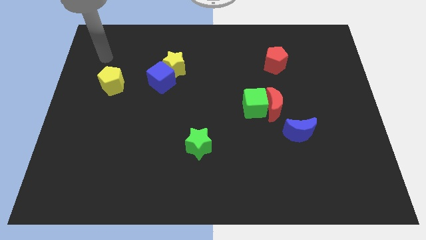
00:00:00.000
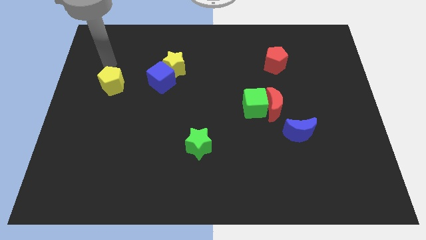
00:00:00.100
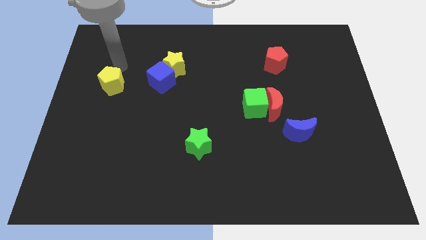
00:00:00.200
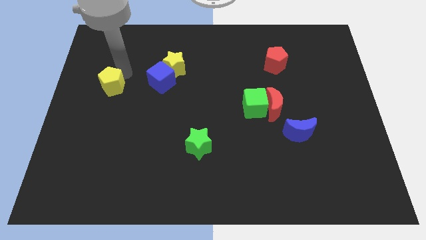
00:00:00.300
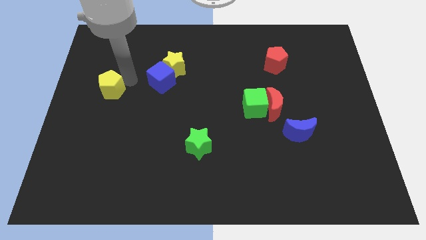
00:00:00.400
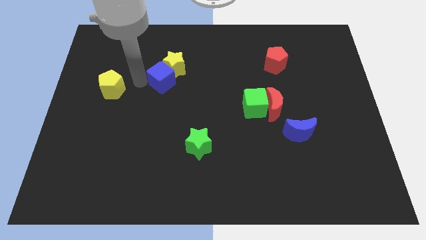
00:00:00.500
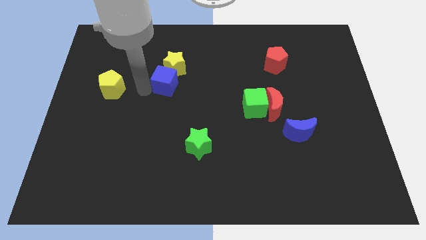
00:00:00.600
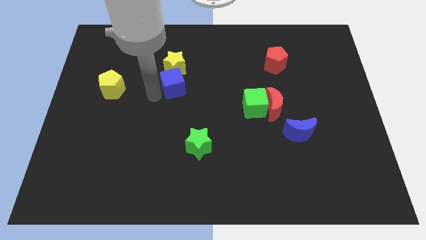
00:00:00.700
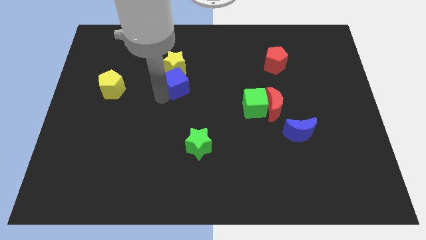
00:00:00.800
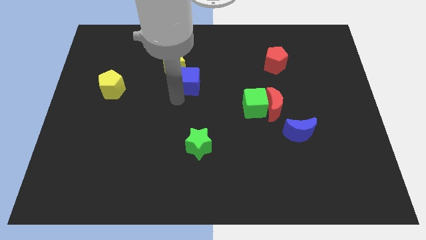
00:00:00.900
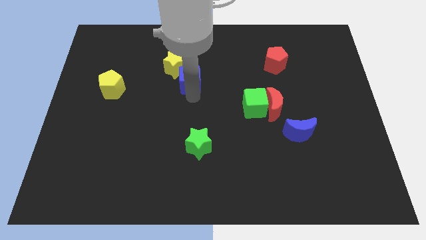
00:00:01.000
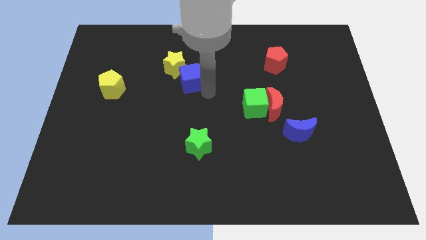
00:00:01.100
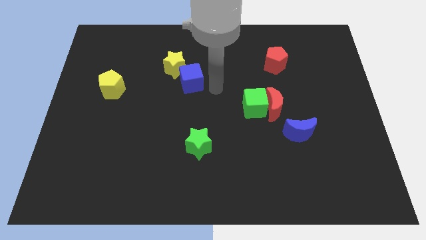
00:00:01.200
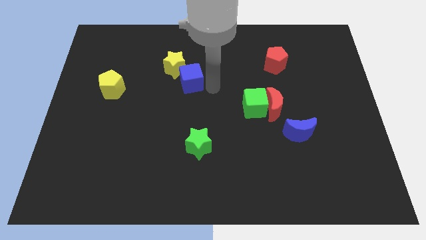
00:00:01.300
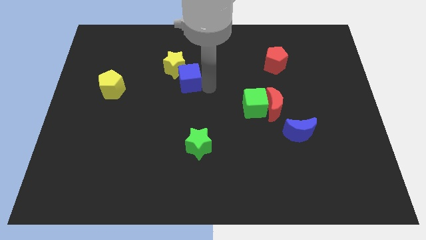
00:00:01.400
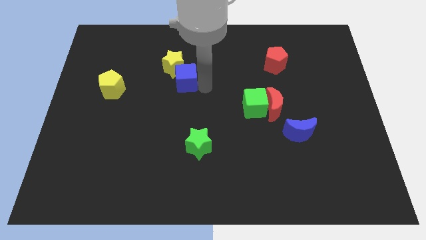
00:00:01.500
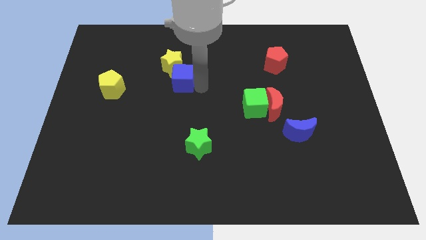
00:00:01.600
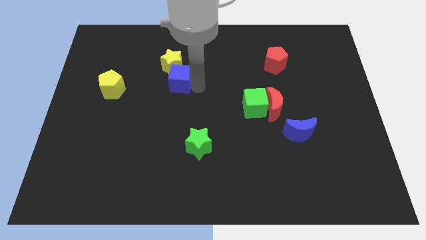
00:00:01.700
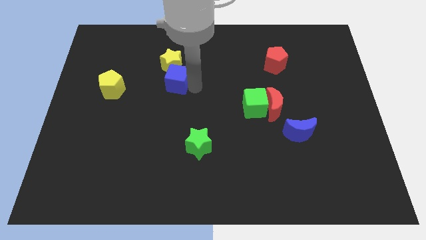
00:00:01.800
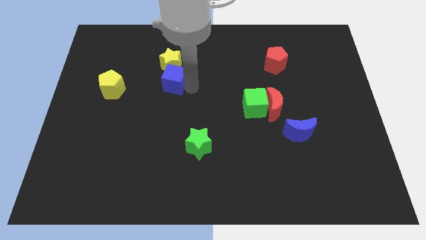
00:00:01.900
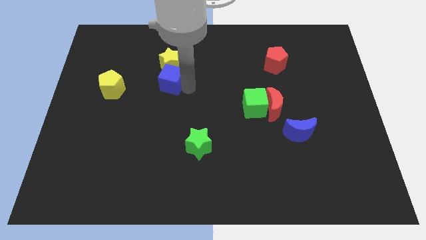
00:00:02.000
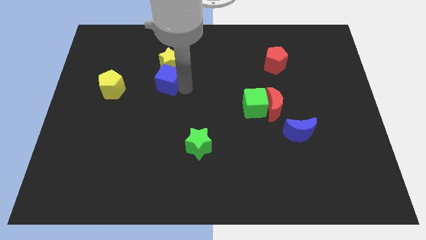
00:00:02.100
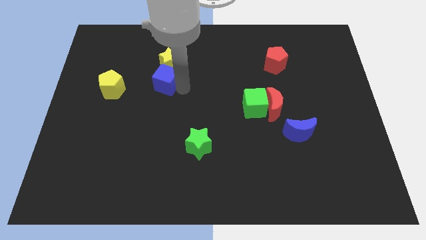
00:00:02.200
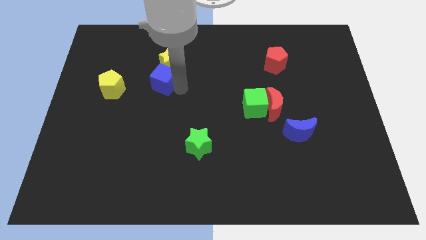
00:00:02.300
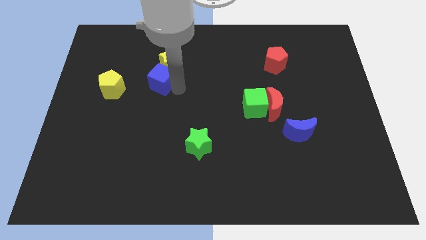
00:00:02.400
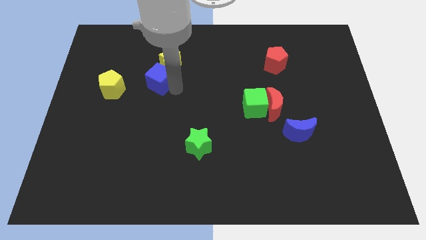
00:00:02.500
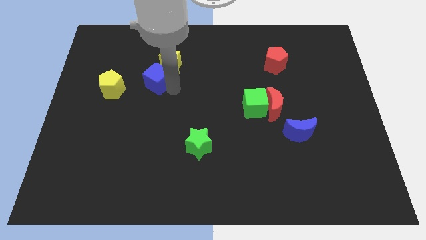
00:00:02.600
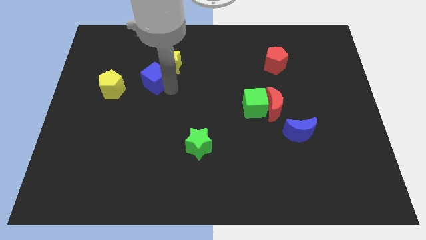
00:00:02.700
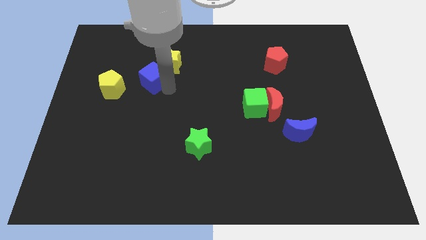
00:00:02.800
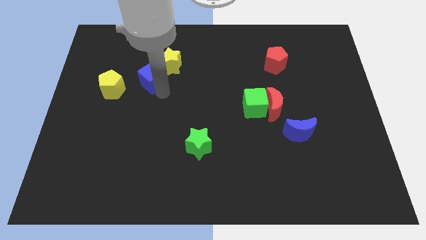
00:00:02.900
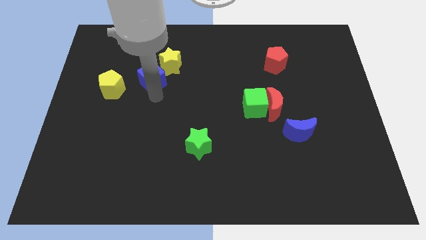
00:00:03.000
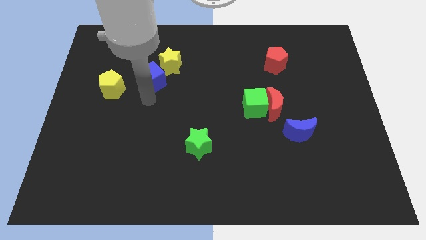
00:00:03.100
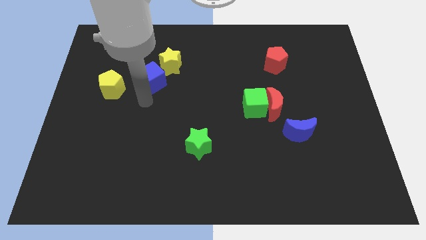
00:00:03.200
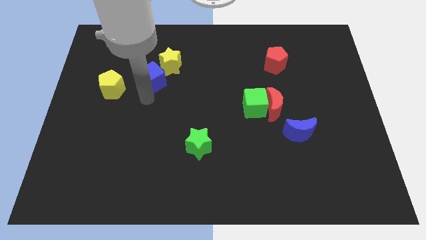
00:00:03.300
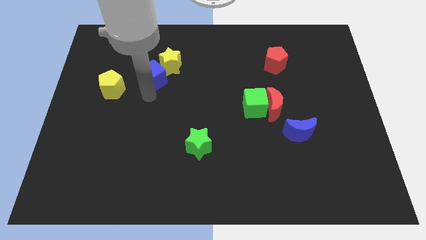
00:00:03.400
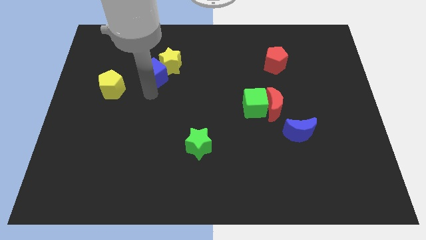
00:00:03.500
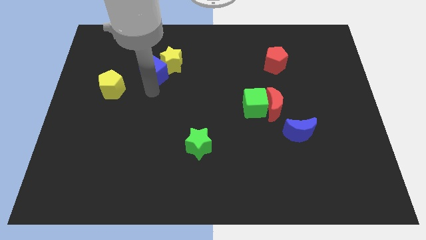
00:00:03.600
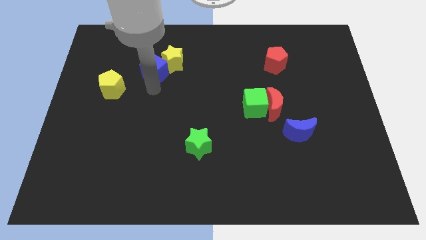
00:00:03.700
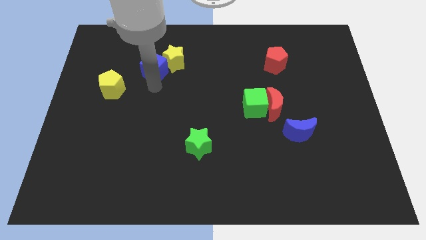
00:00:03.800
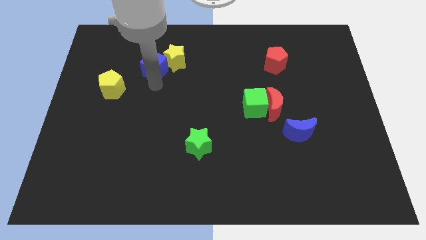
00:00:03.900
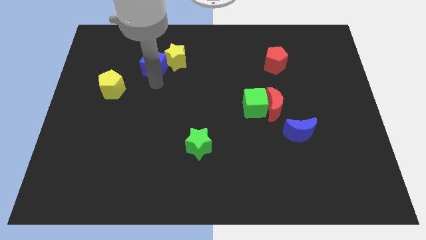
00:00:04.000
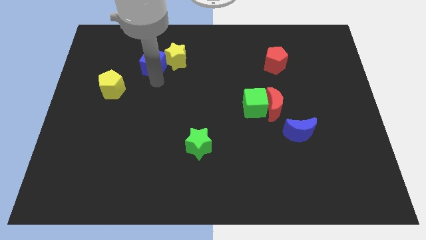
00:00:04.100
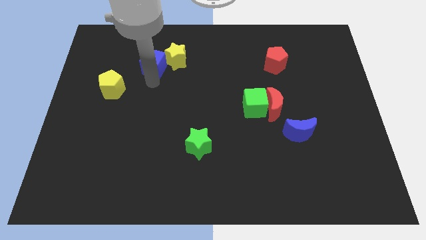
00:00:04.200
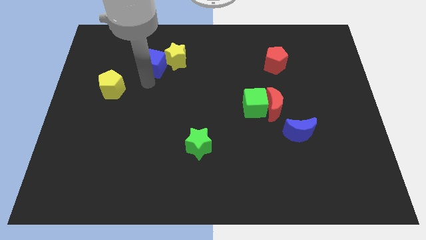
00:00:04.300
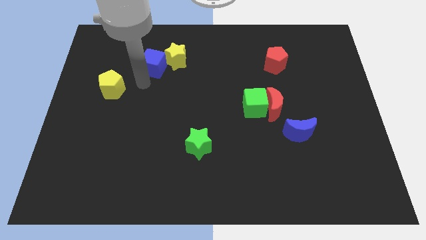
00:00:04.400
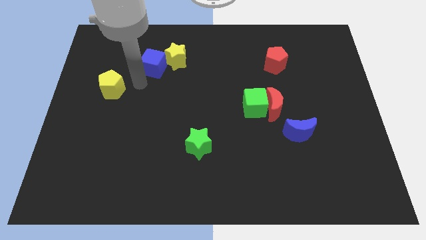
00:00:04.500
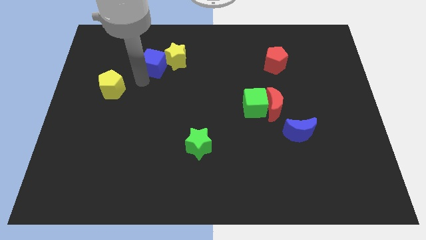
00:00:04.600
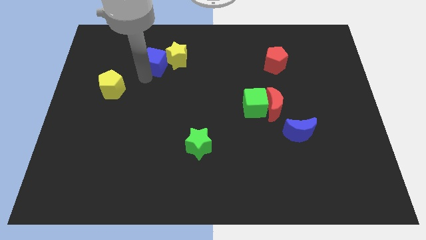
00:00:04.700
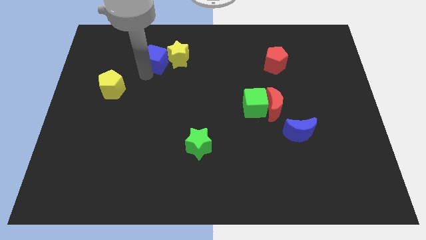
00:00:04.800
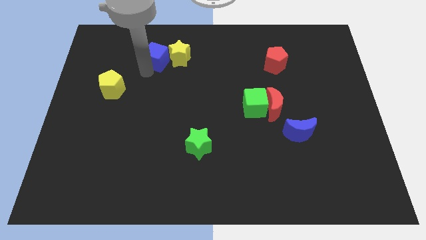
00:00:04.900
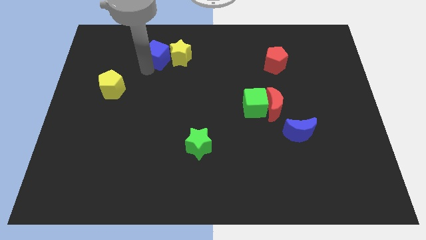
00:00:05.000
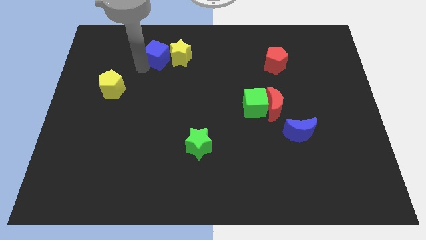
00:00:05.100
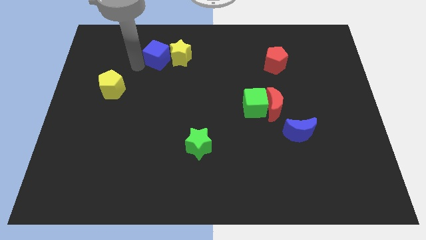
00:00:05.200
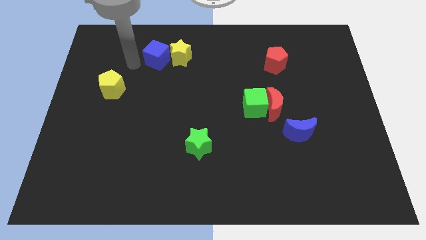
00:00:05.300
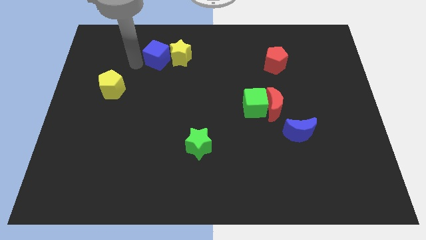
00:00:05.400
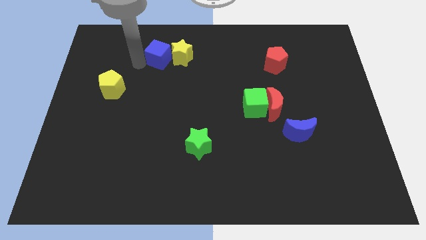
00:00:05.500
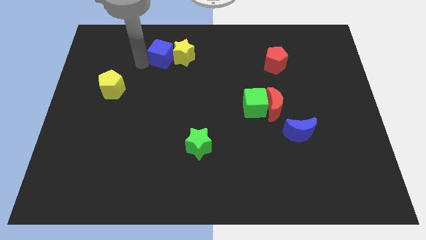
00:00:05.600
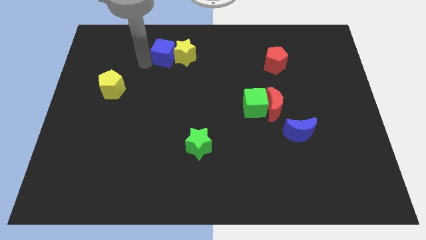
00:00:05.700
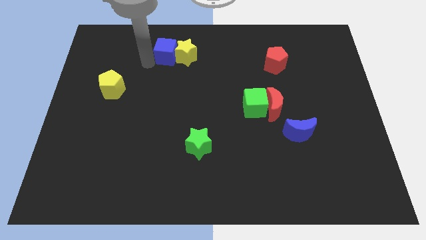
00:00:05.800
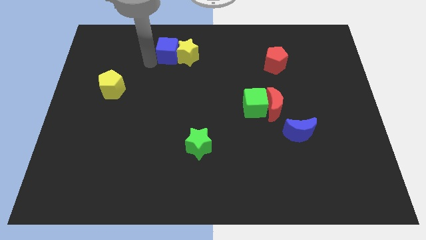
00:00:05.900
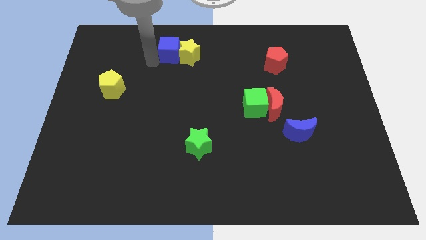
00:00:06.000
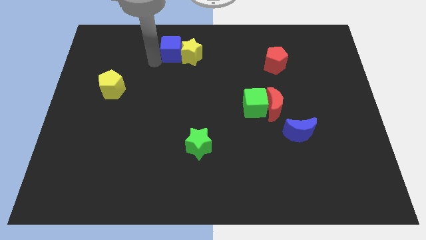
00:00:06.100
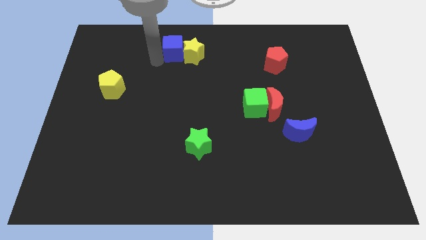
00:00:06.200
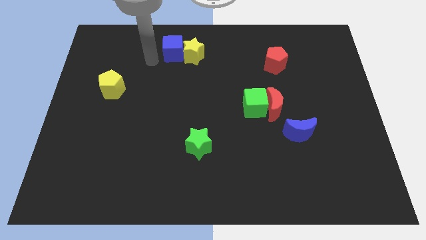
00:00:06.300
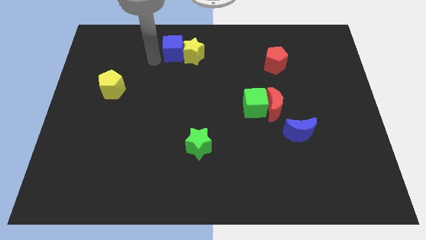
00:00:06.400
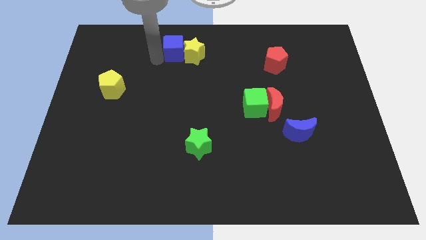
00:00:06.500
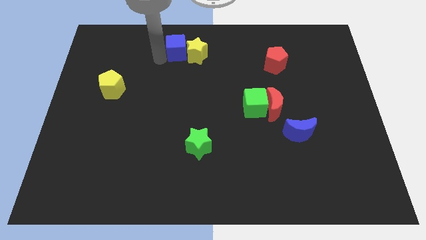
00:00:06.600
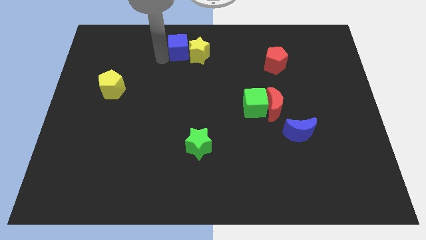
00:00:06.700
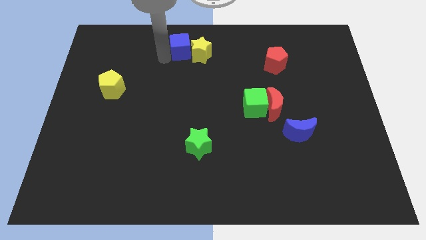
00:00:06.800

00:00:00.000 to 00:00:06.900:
move the blue cube to the top side

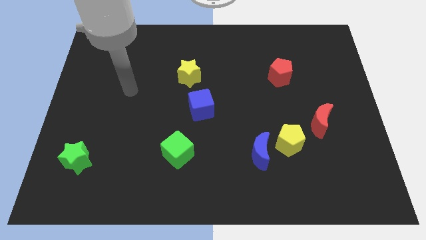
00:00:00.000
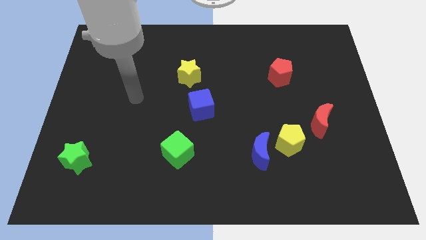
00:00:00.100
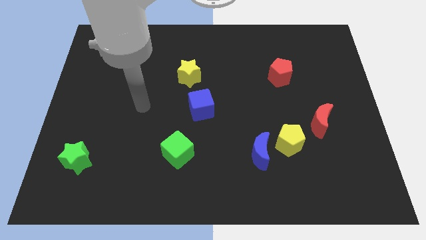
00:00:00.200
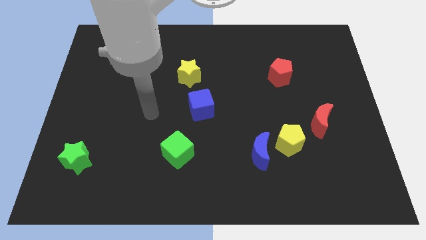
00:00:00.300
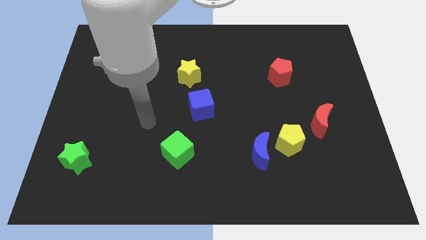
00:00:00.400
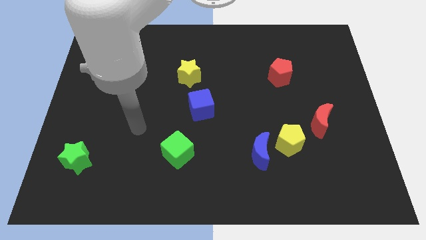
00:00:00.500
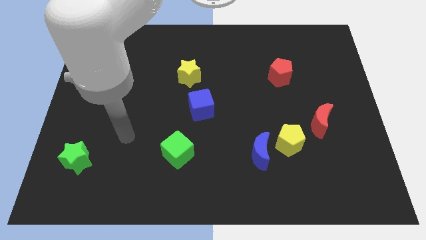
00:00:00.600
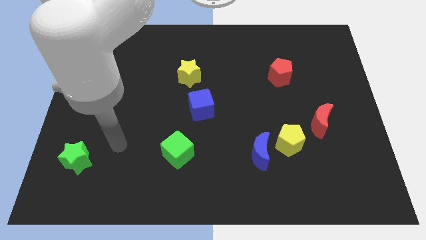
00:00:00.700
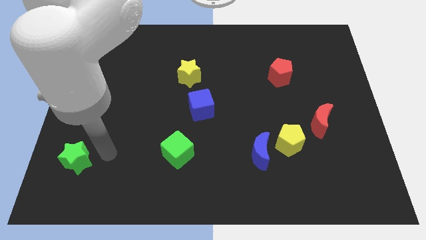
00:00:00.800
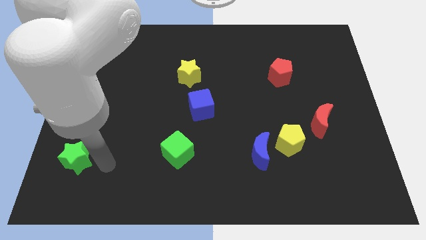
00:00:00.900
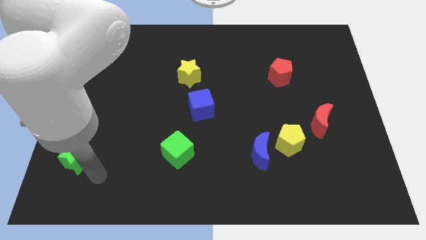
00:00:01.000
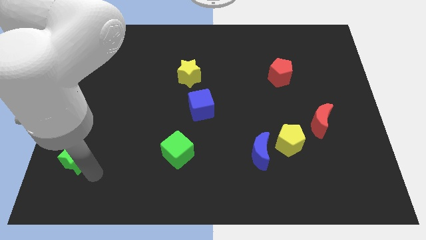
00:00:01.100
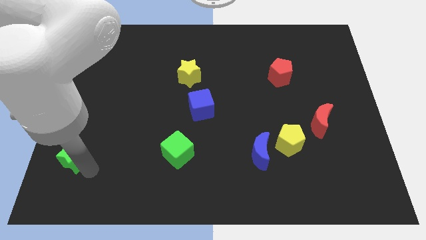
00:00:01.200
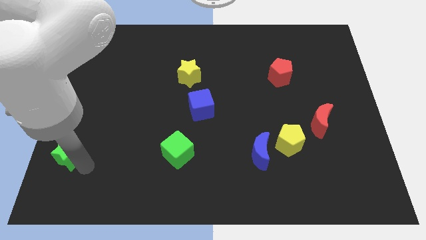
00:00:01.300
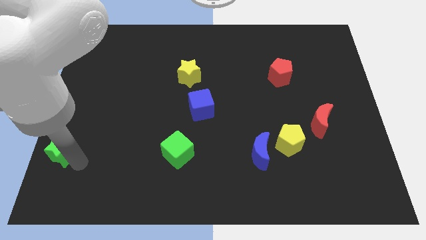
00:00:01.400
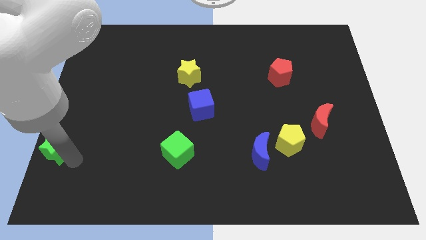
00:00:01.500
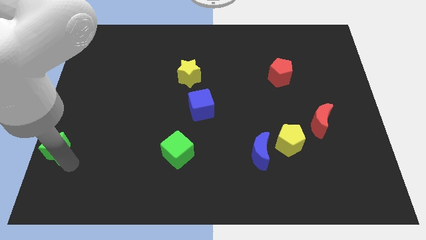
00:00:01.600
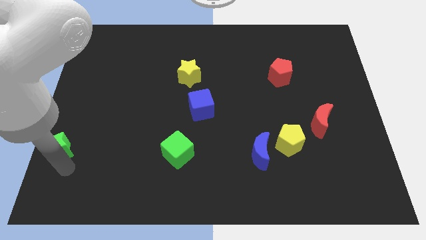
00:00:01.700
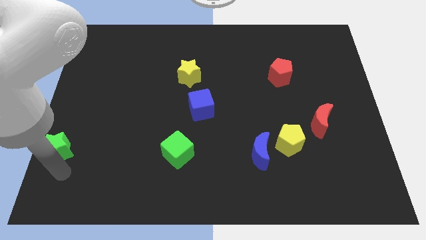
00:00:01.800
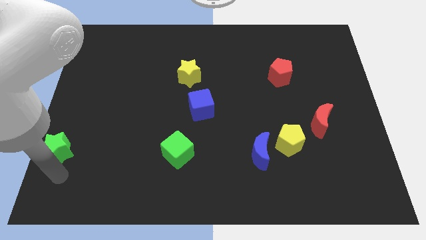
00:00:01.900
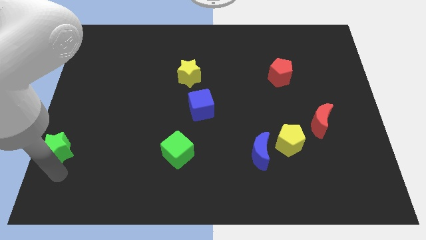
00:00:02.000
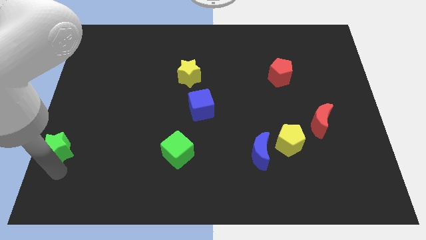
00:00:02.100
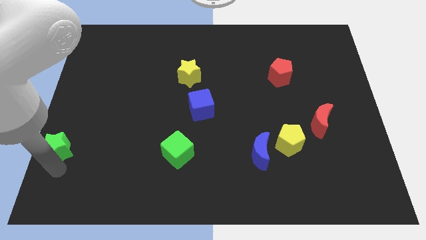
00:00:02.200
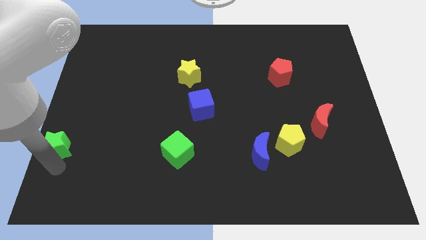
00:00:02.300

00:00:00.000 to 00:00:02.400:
push the green star to the left side of the board
